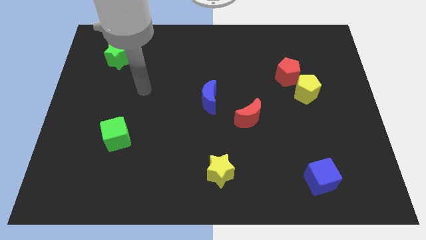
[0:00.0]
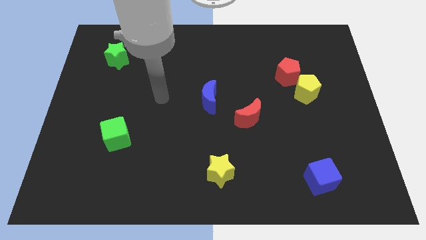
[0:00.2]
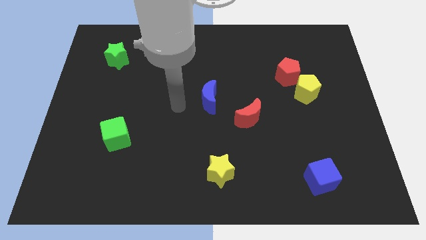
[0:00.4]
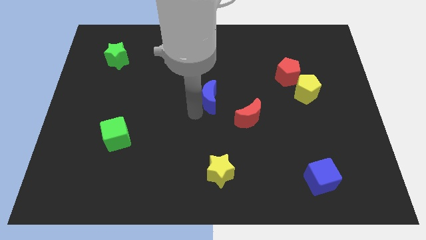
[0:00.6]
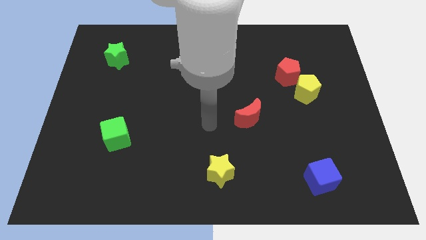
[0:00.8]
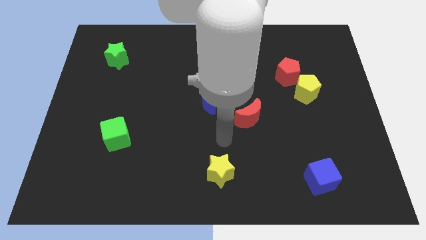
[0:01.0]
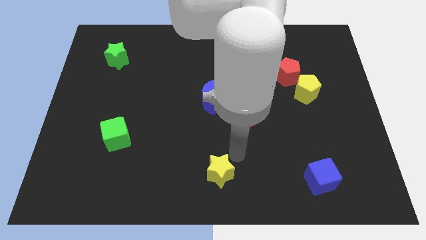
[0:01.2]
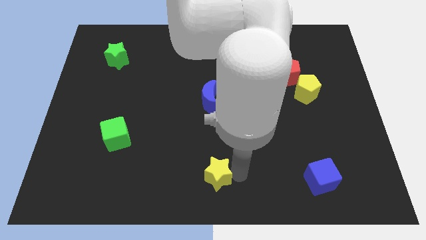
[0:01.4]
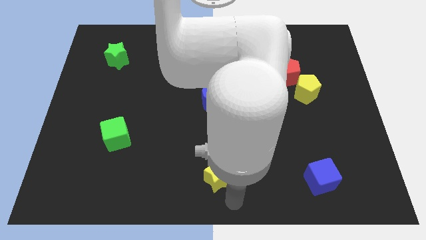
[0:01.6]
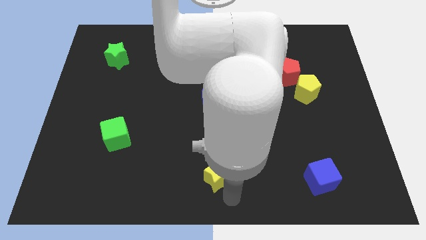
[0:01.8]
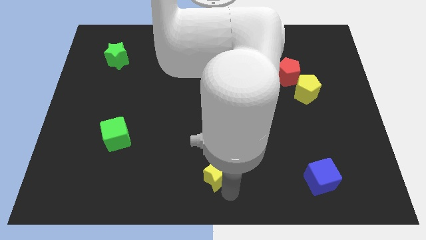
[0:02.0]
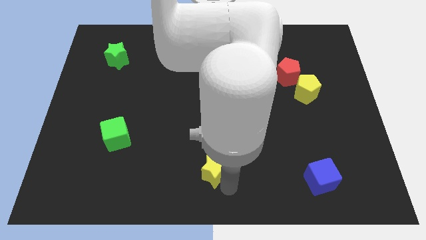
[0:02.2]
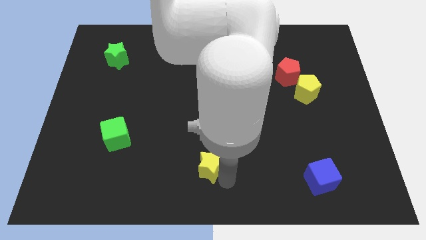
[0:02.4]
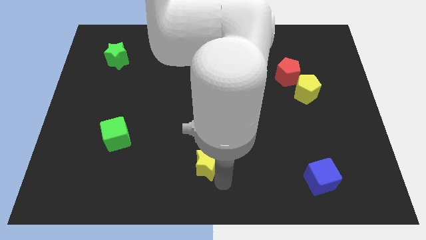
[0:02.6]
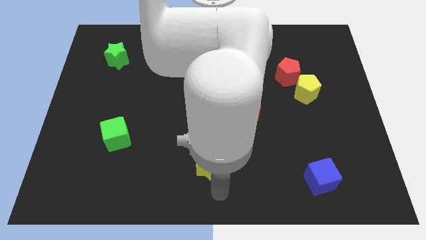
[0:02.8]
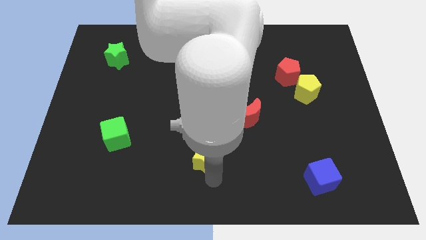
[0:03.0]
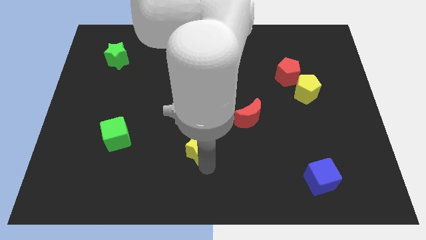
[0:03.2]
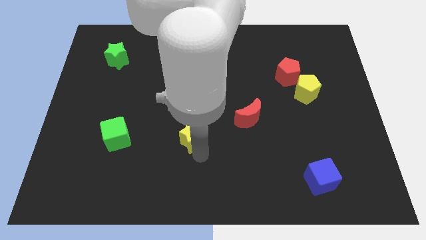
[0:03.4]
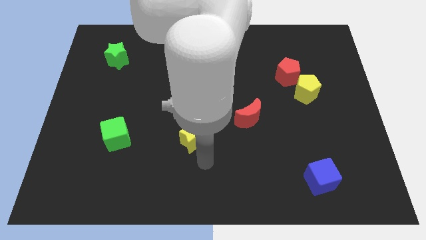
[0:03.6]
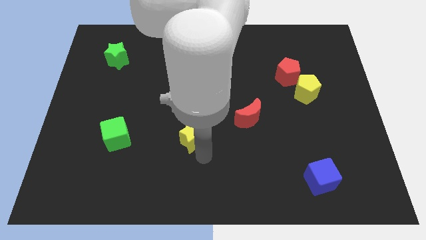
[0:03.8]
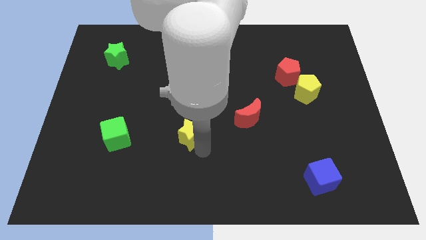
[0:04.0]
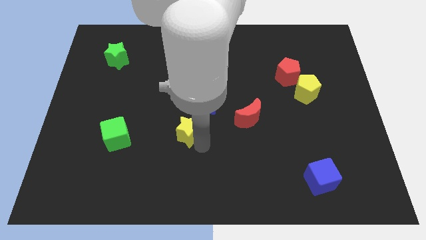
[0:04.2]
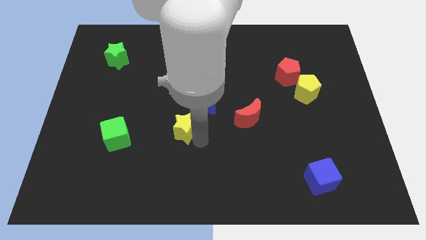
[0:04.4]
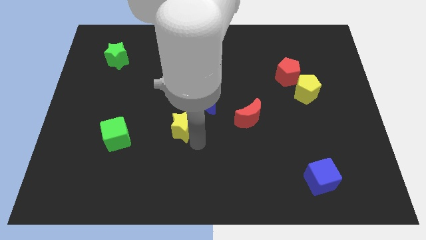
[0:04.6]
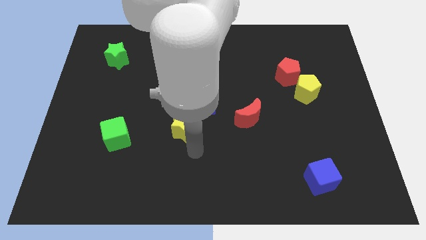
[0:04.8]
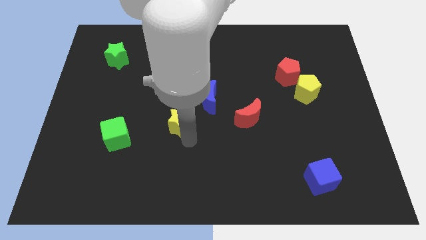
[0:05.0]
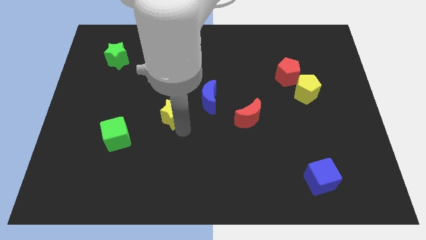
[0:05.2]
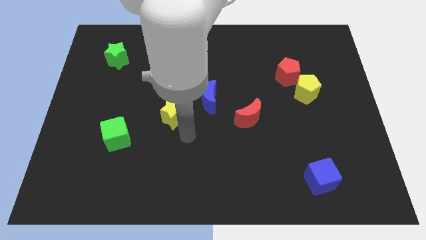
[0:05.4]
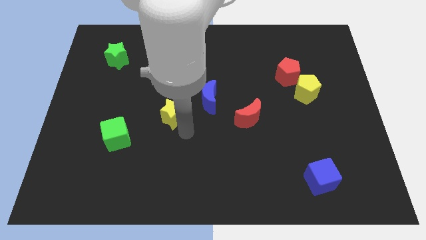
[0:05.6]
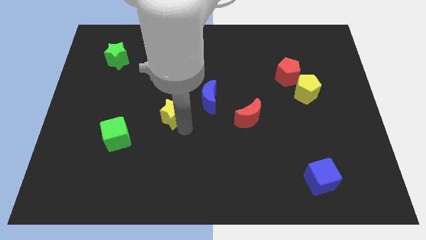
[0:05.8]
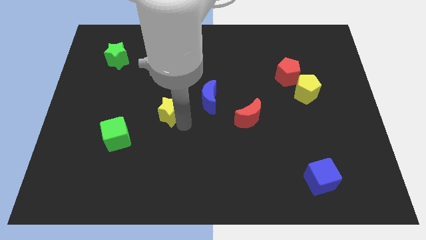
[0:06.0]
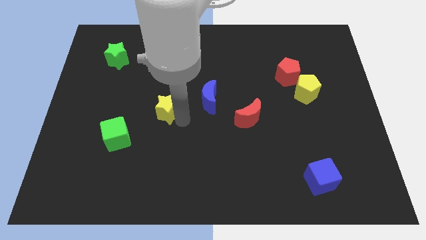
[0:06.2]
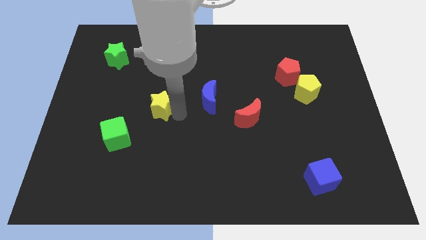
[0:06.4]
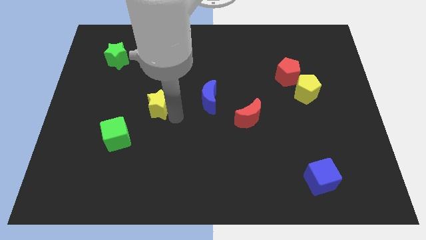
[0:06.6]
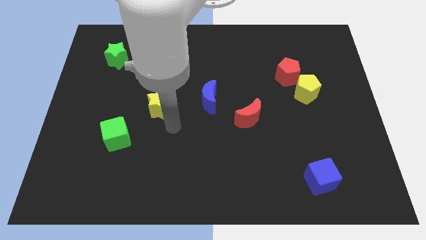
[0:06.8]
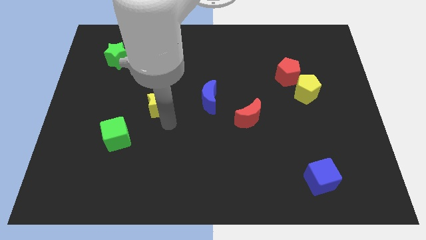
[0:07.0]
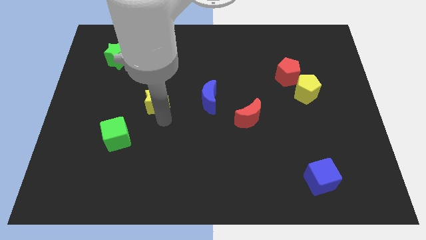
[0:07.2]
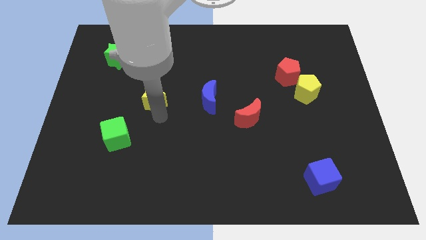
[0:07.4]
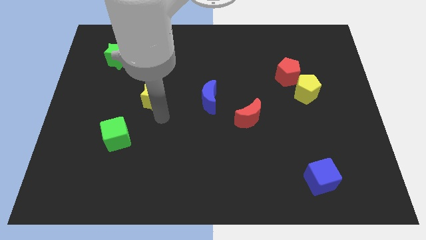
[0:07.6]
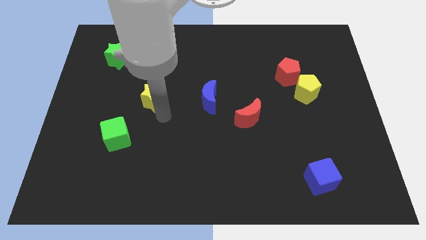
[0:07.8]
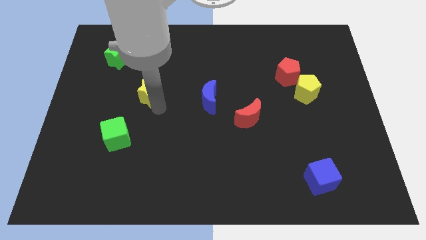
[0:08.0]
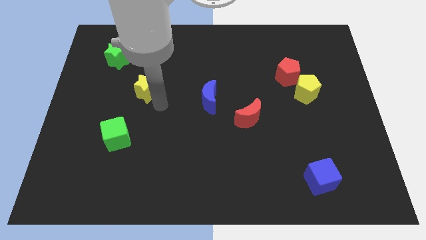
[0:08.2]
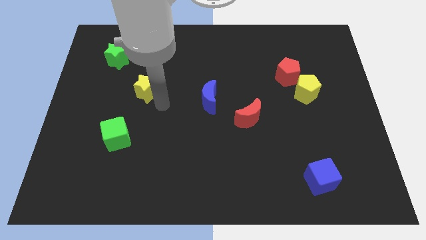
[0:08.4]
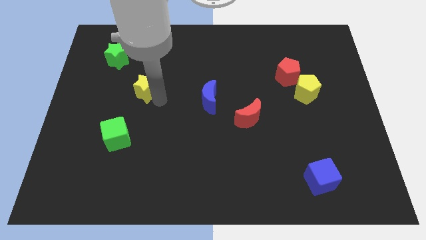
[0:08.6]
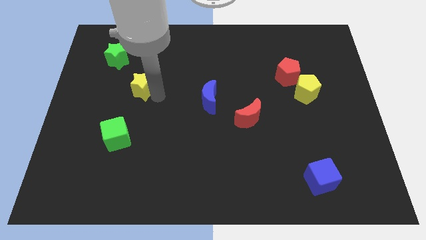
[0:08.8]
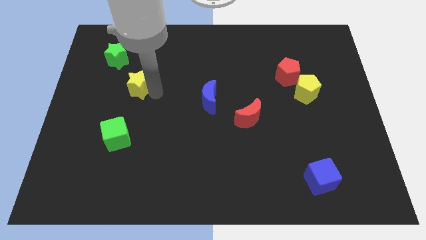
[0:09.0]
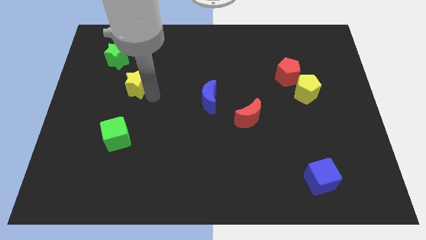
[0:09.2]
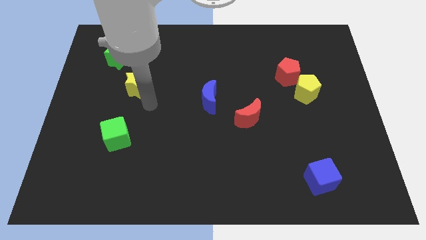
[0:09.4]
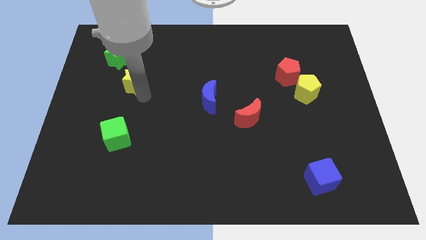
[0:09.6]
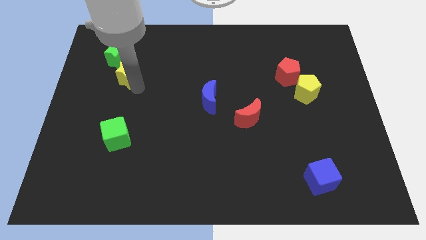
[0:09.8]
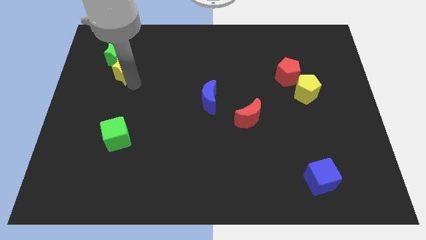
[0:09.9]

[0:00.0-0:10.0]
put the yellow star to the green star

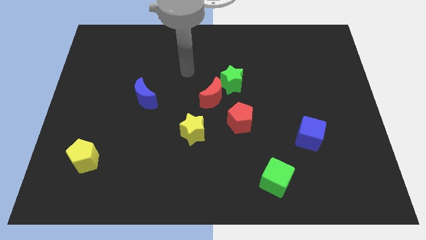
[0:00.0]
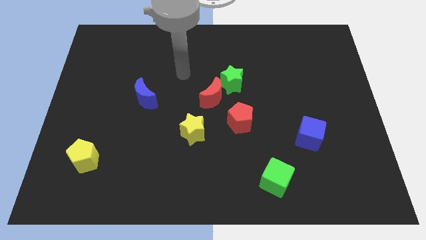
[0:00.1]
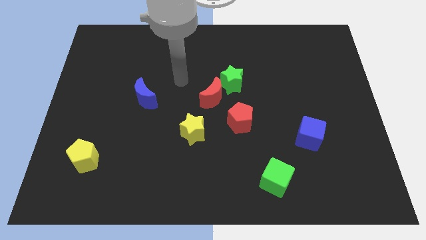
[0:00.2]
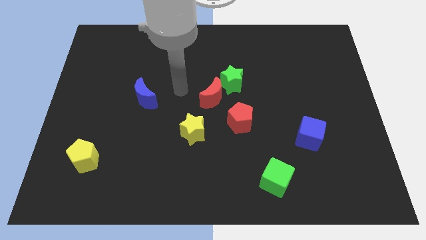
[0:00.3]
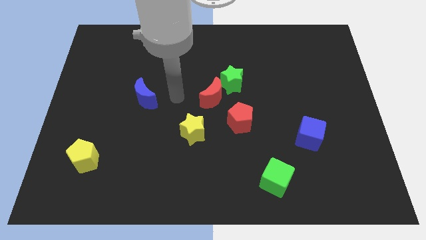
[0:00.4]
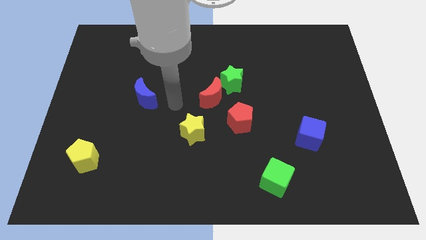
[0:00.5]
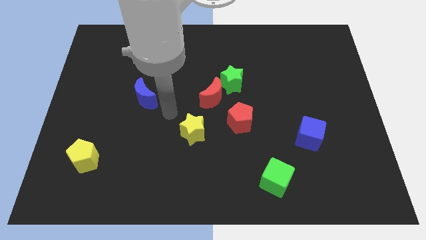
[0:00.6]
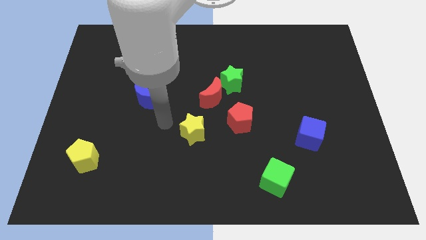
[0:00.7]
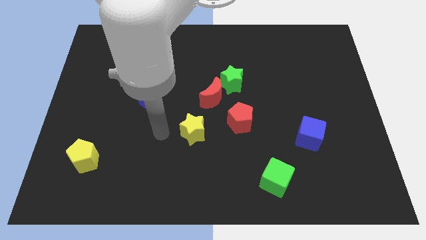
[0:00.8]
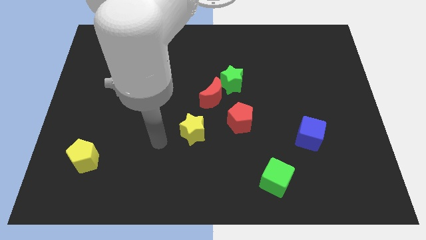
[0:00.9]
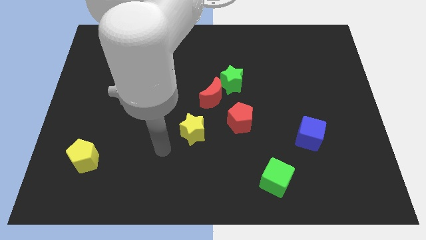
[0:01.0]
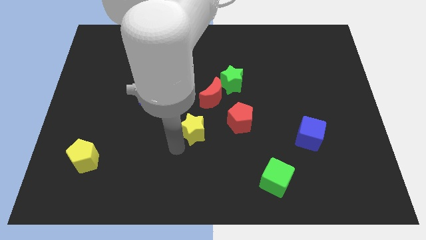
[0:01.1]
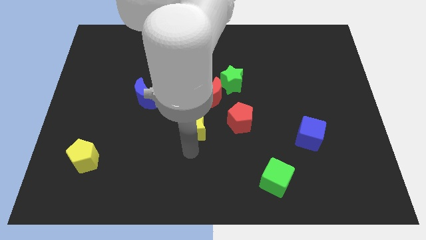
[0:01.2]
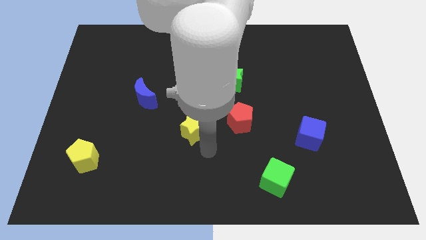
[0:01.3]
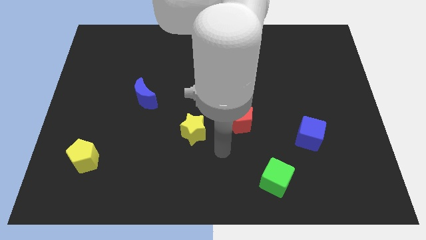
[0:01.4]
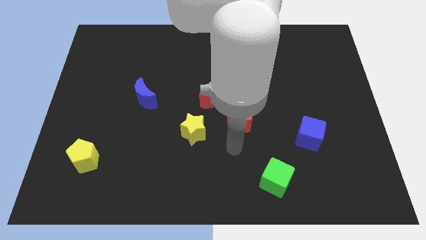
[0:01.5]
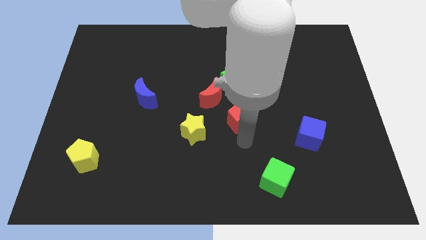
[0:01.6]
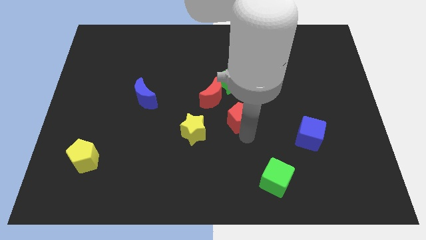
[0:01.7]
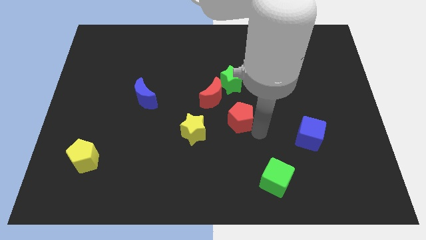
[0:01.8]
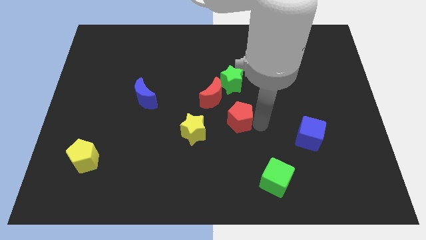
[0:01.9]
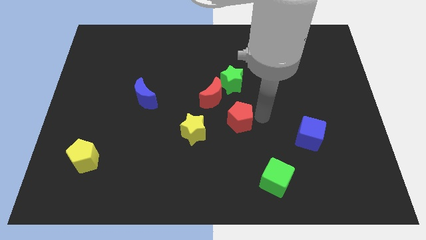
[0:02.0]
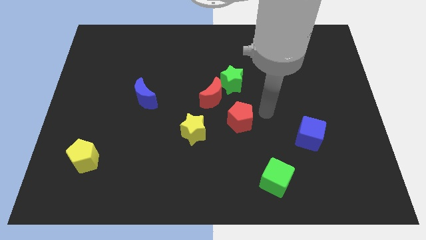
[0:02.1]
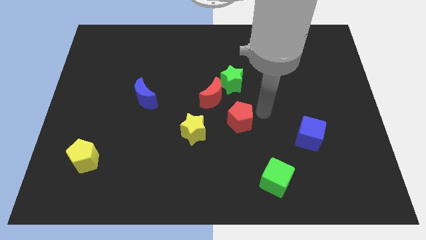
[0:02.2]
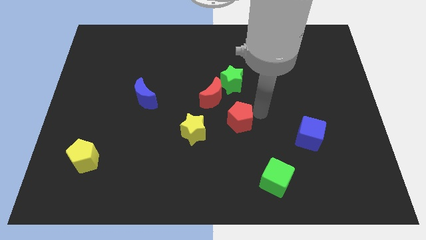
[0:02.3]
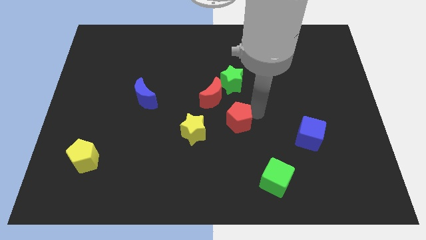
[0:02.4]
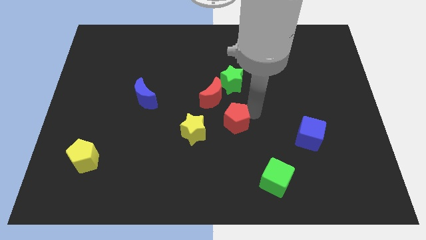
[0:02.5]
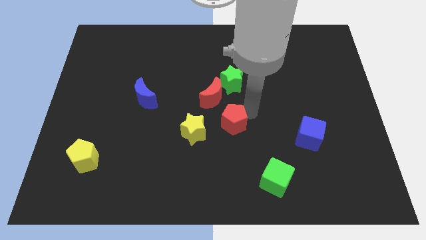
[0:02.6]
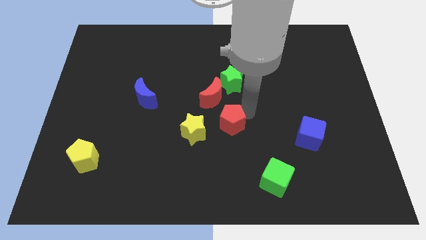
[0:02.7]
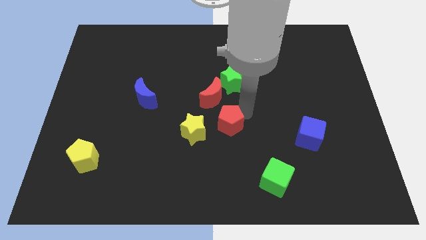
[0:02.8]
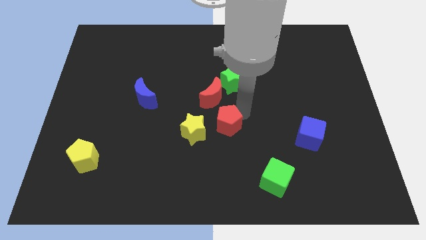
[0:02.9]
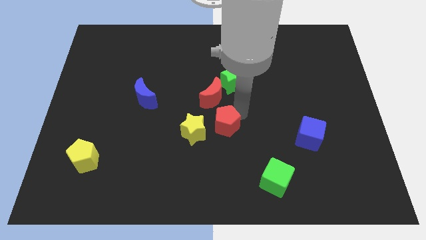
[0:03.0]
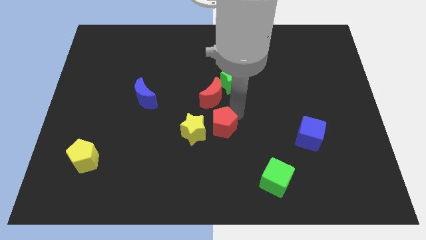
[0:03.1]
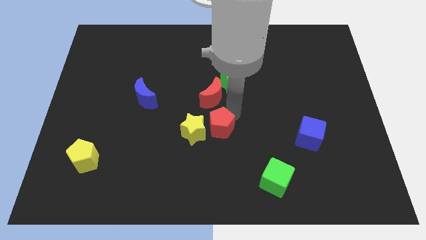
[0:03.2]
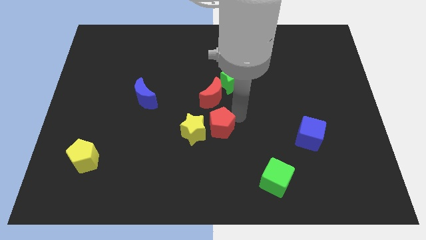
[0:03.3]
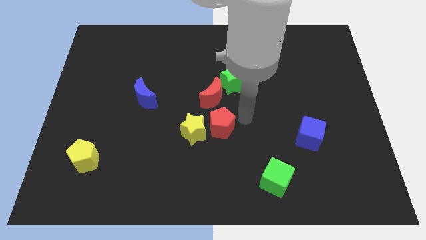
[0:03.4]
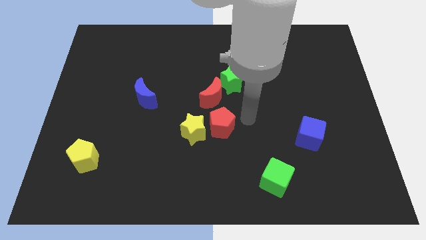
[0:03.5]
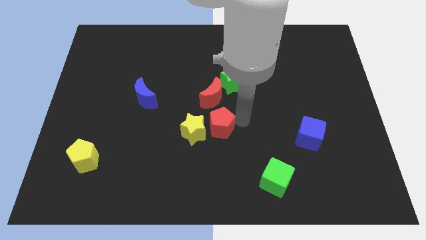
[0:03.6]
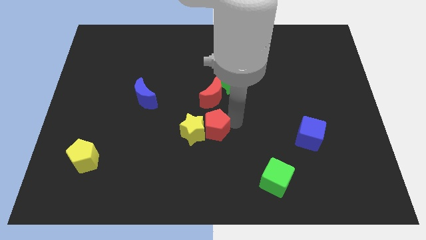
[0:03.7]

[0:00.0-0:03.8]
move the red pentagon next to the yellow star
